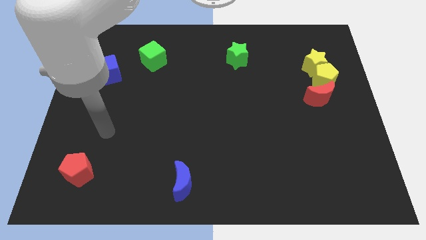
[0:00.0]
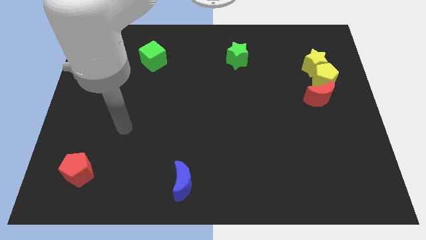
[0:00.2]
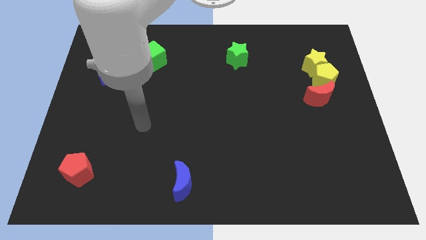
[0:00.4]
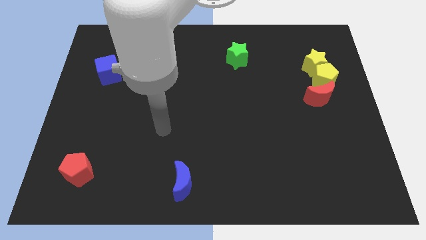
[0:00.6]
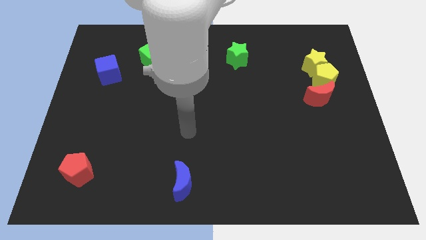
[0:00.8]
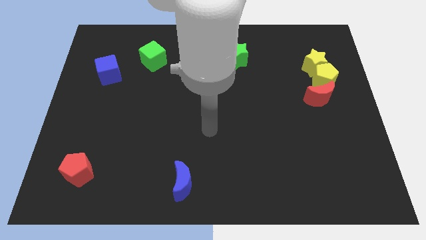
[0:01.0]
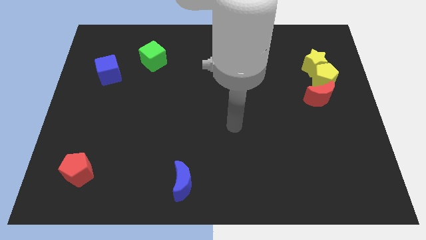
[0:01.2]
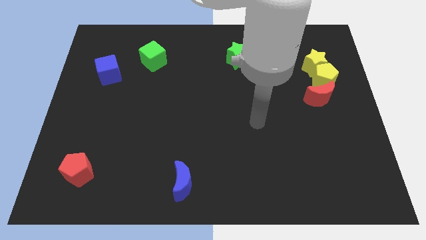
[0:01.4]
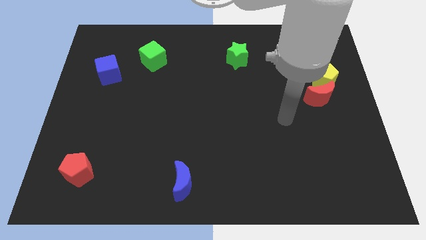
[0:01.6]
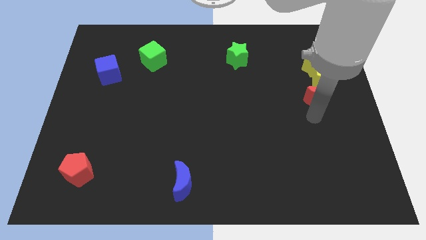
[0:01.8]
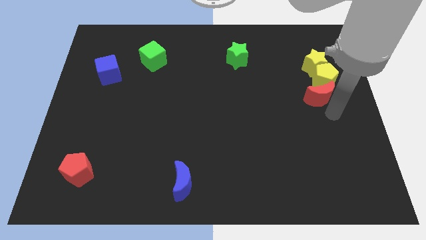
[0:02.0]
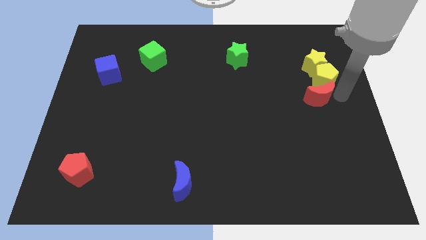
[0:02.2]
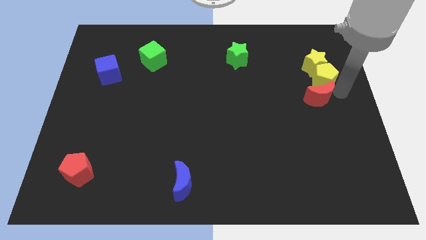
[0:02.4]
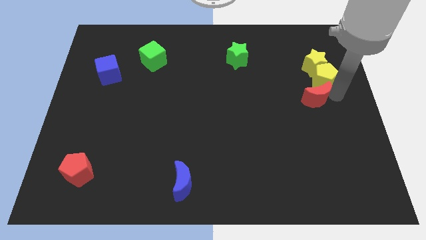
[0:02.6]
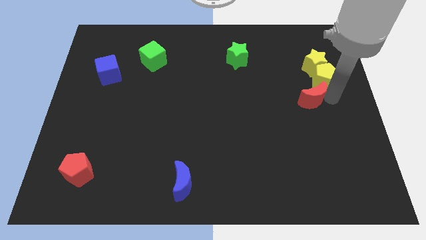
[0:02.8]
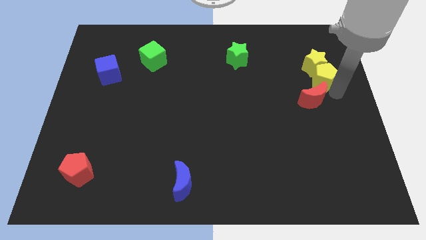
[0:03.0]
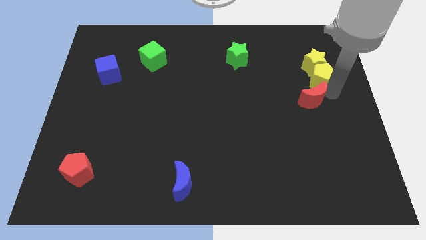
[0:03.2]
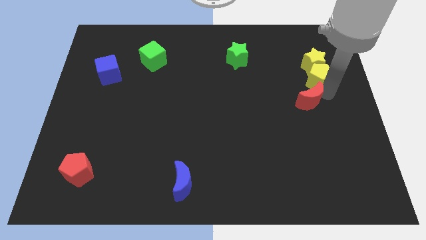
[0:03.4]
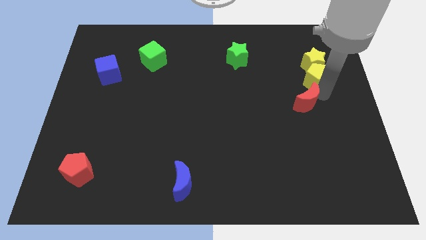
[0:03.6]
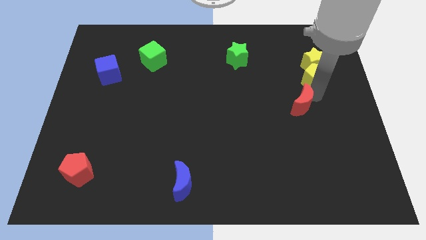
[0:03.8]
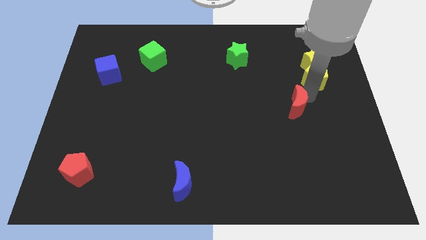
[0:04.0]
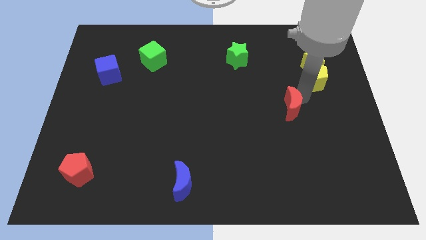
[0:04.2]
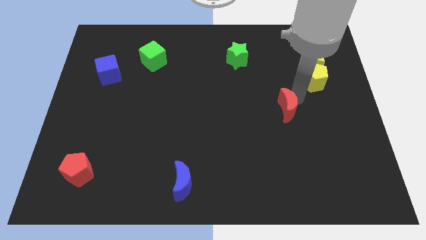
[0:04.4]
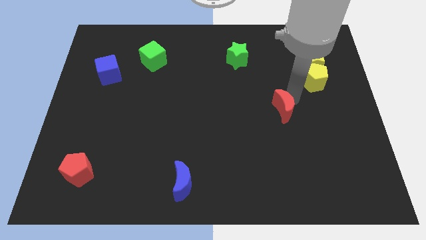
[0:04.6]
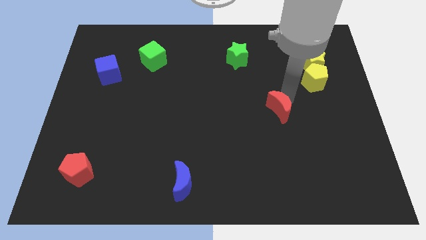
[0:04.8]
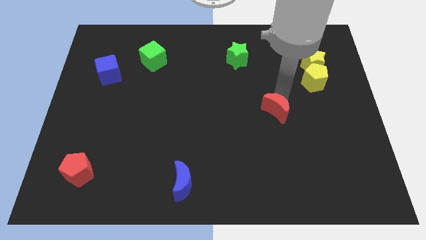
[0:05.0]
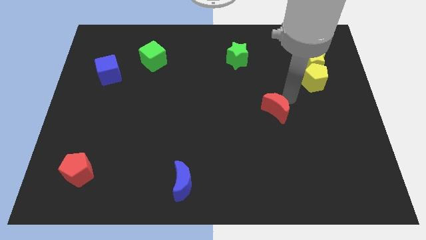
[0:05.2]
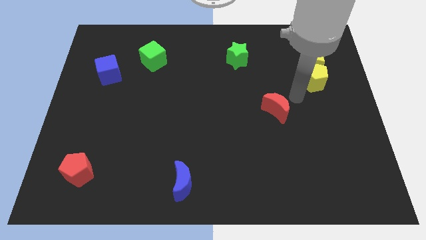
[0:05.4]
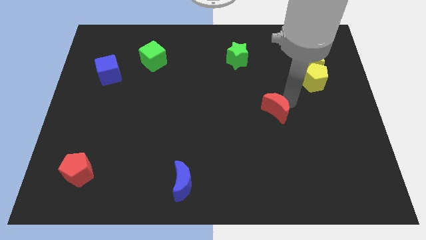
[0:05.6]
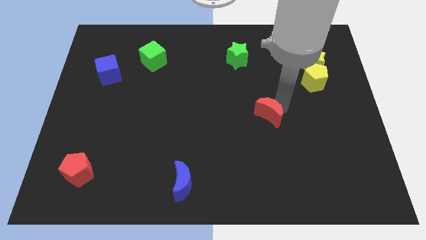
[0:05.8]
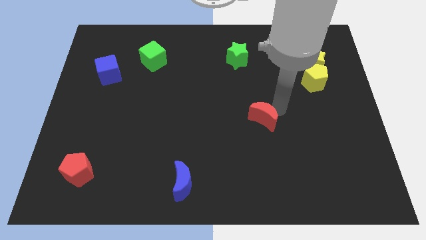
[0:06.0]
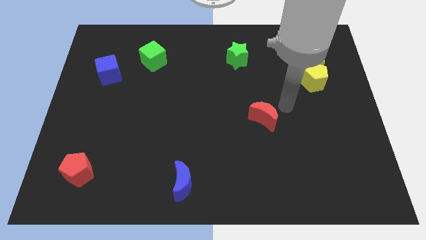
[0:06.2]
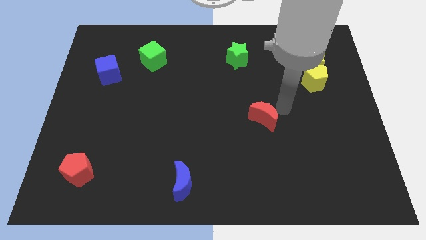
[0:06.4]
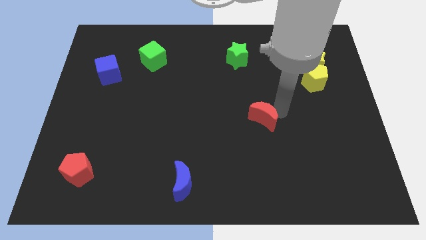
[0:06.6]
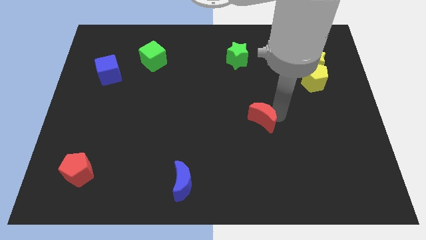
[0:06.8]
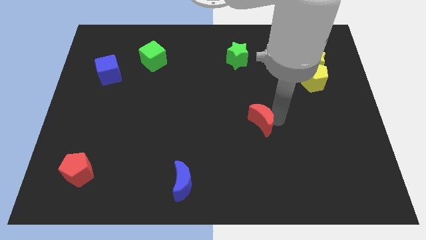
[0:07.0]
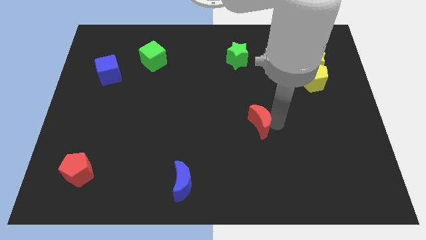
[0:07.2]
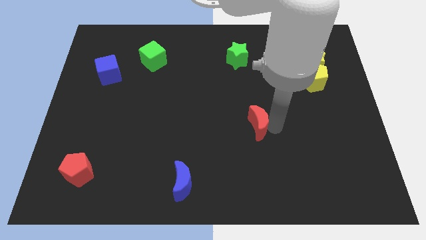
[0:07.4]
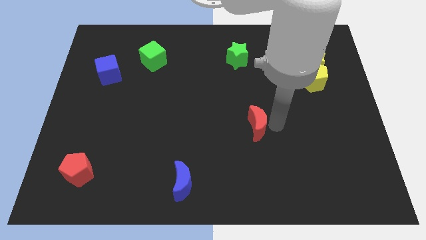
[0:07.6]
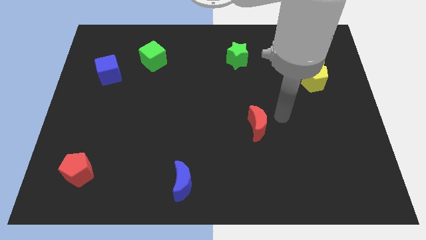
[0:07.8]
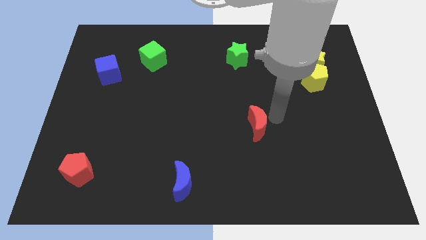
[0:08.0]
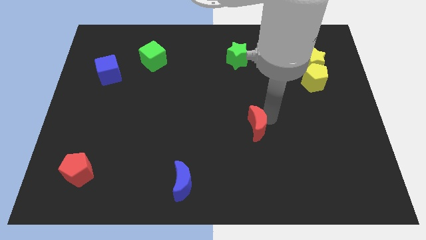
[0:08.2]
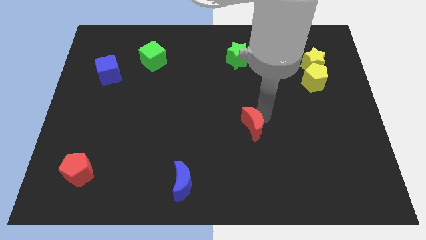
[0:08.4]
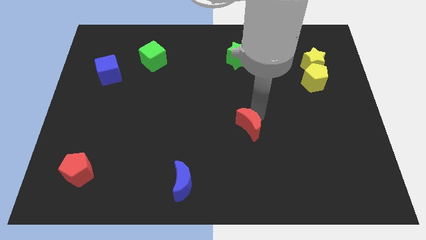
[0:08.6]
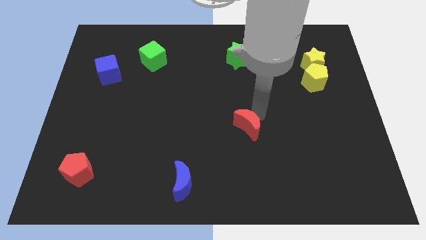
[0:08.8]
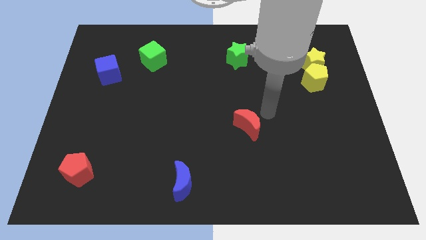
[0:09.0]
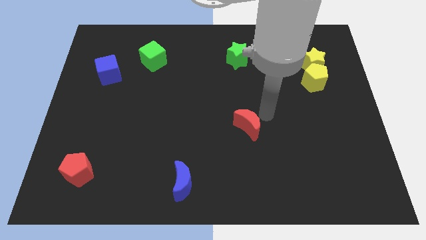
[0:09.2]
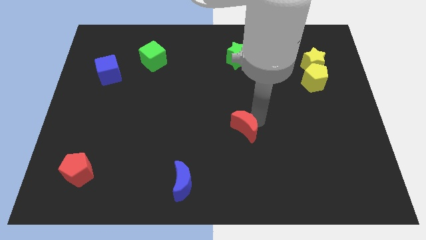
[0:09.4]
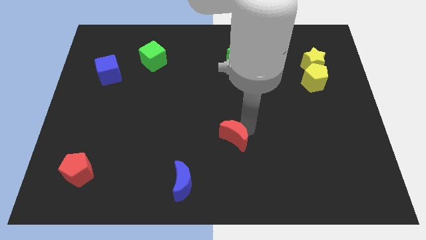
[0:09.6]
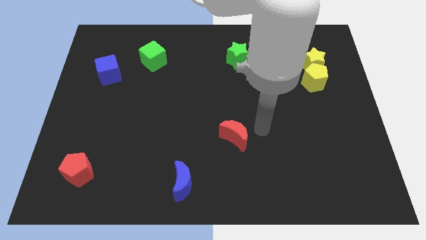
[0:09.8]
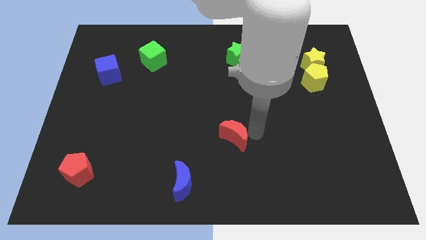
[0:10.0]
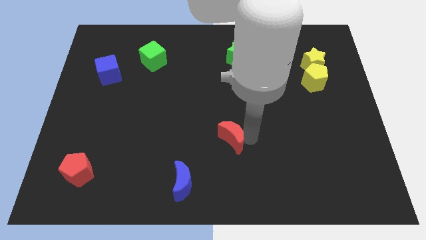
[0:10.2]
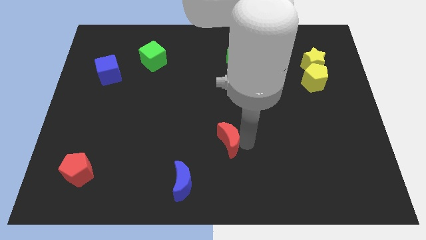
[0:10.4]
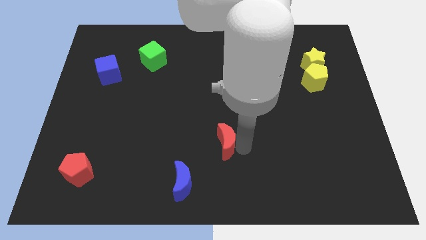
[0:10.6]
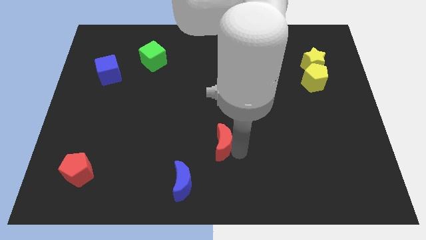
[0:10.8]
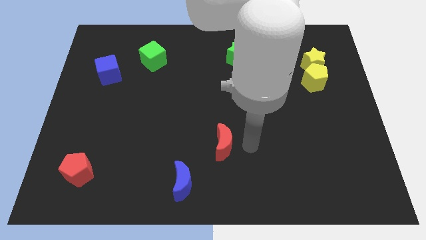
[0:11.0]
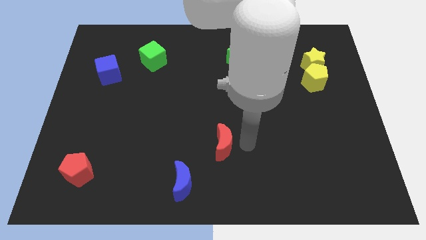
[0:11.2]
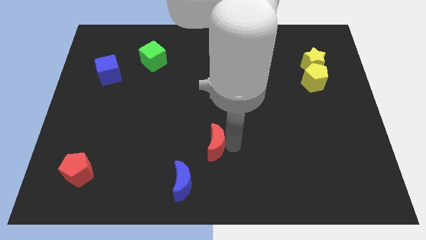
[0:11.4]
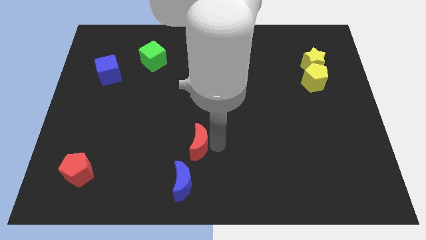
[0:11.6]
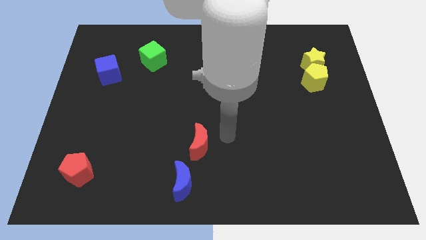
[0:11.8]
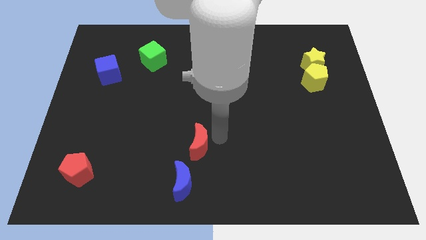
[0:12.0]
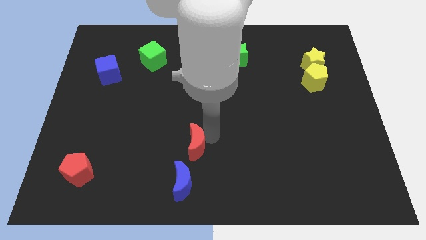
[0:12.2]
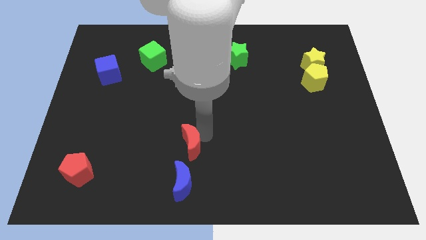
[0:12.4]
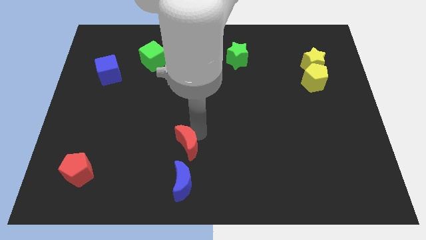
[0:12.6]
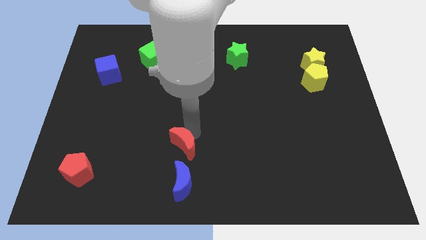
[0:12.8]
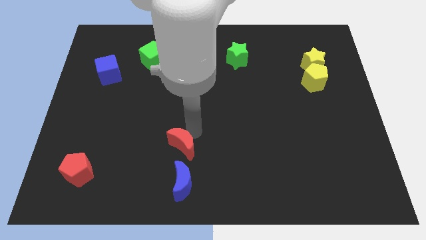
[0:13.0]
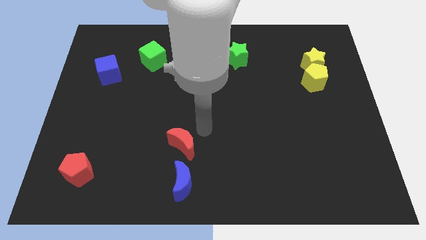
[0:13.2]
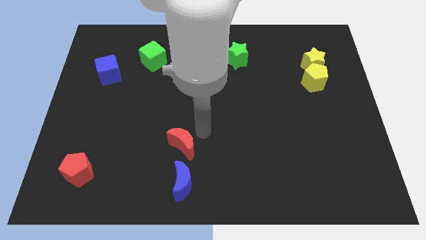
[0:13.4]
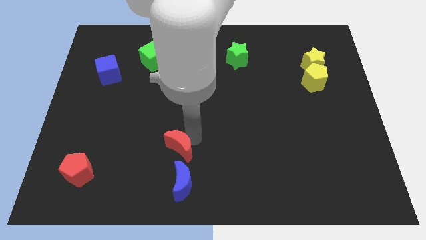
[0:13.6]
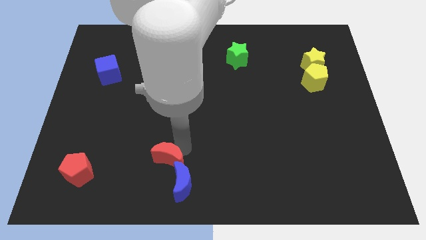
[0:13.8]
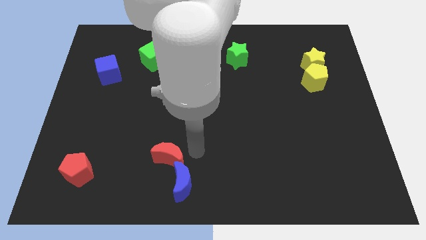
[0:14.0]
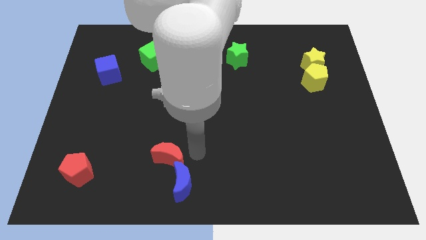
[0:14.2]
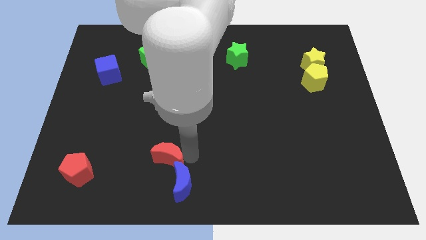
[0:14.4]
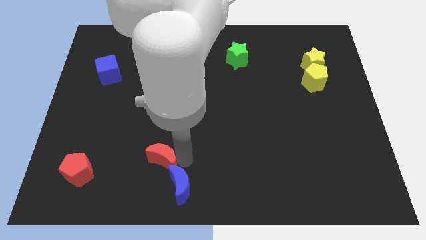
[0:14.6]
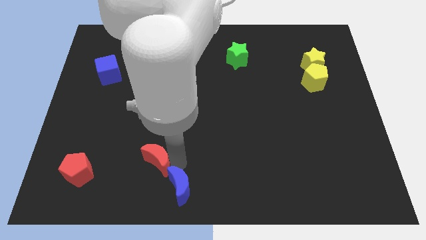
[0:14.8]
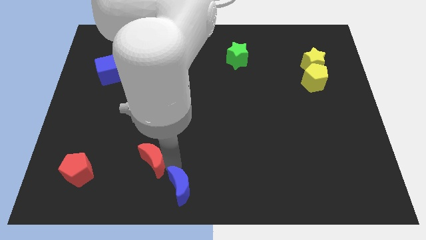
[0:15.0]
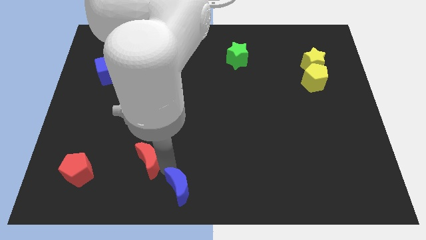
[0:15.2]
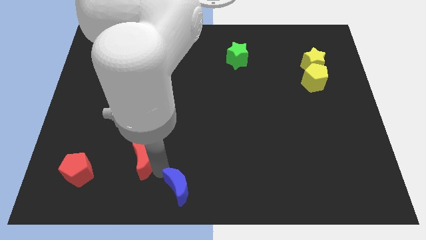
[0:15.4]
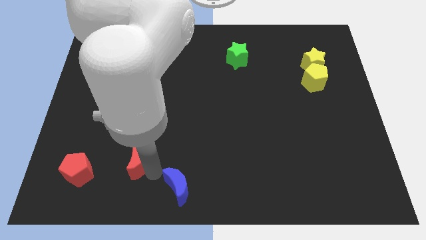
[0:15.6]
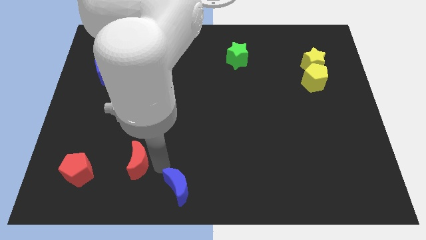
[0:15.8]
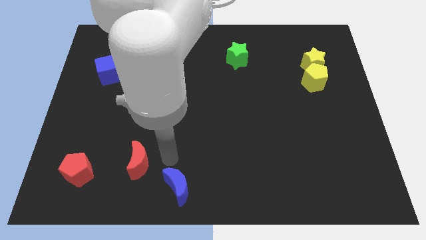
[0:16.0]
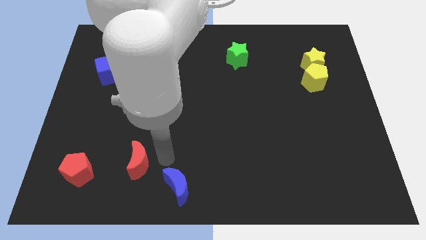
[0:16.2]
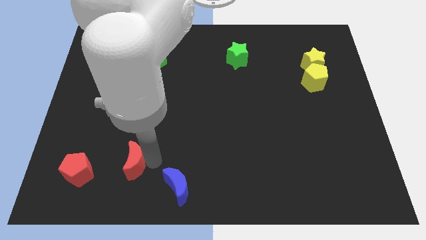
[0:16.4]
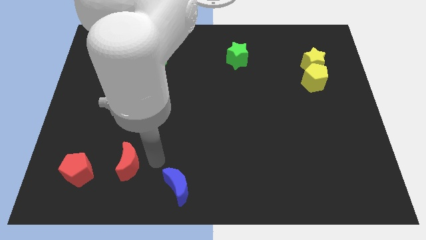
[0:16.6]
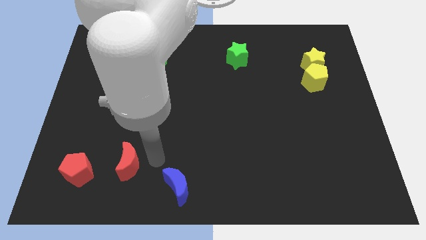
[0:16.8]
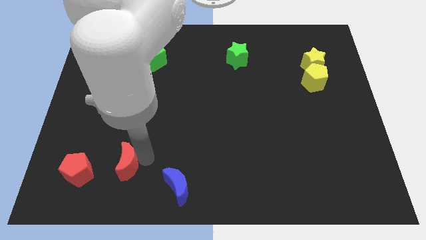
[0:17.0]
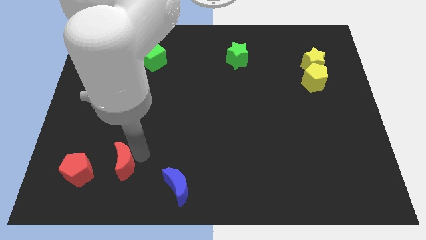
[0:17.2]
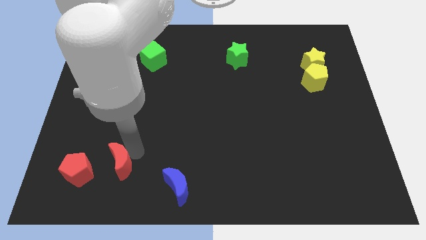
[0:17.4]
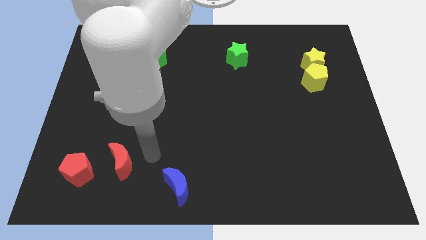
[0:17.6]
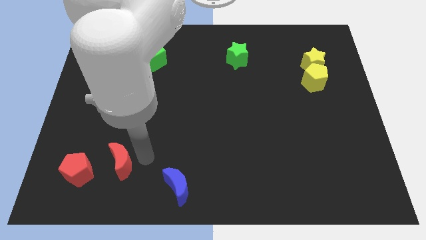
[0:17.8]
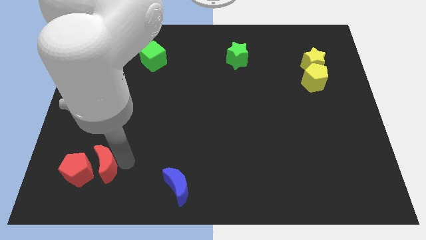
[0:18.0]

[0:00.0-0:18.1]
move the red moon towards the red pentagon
